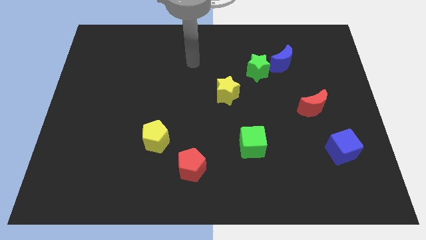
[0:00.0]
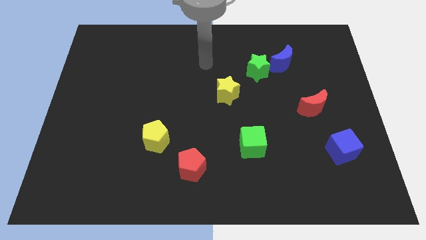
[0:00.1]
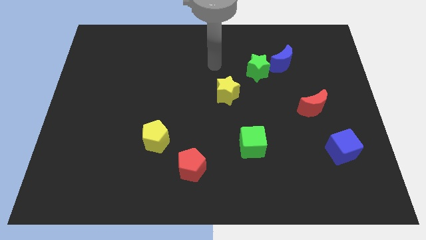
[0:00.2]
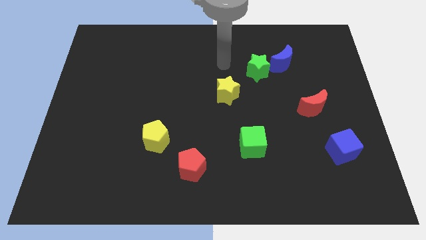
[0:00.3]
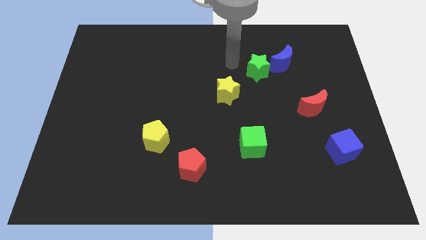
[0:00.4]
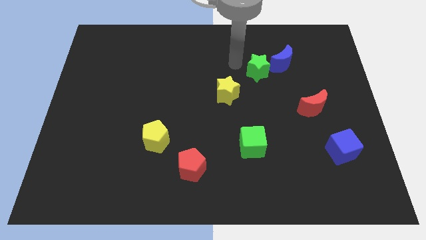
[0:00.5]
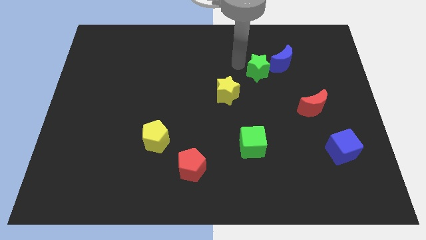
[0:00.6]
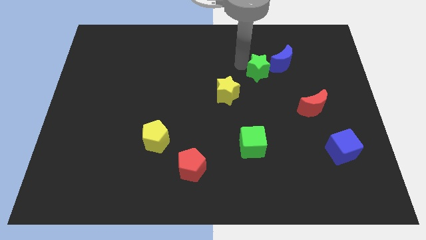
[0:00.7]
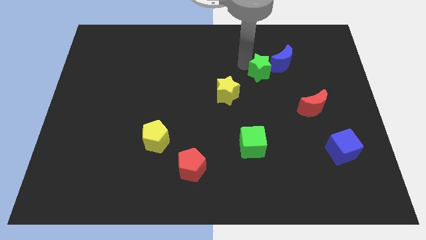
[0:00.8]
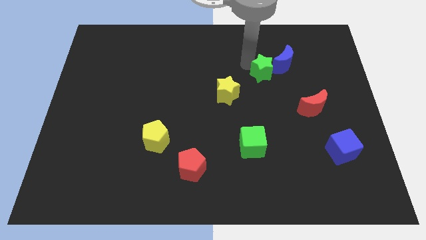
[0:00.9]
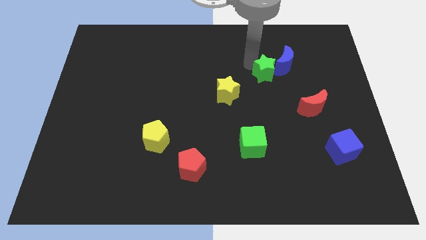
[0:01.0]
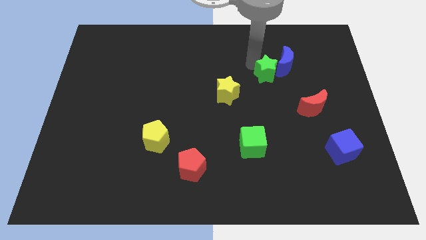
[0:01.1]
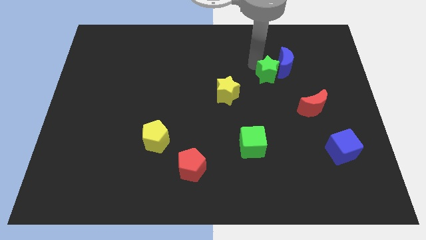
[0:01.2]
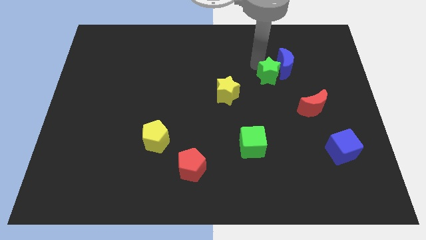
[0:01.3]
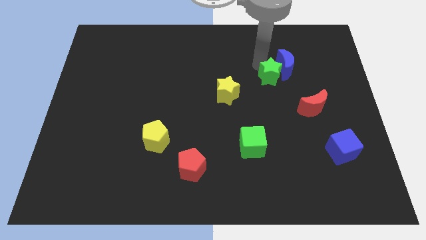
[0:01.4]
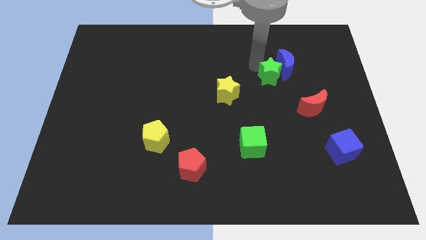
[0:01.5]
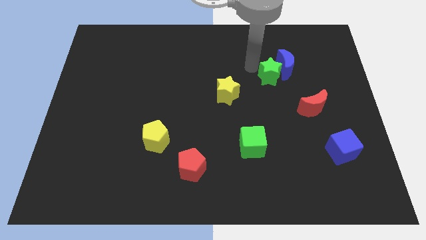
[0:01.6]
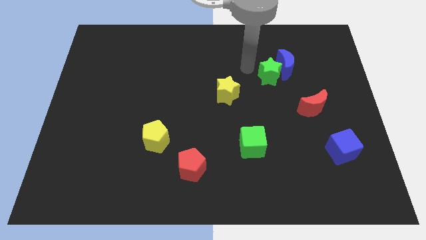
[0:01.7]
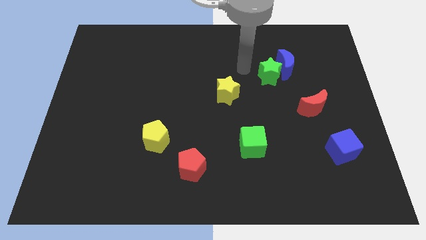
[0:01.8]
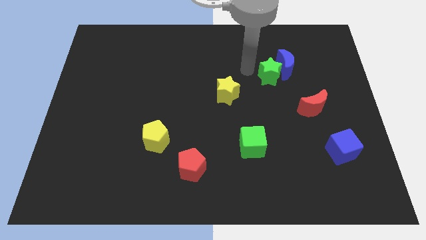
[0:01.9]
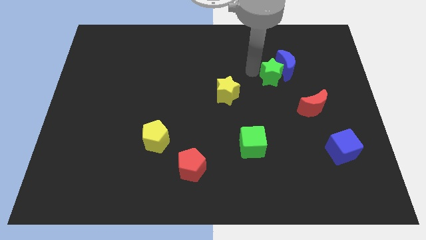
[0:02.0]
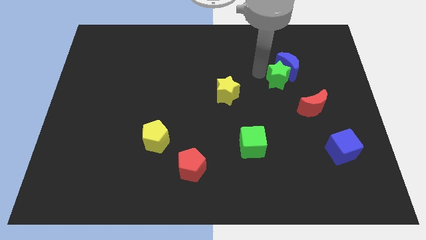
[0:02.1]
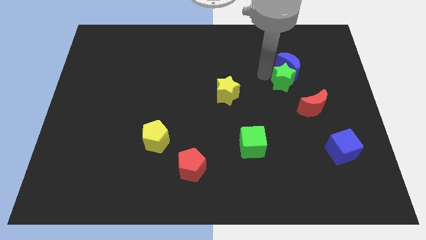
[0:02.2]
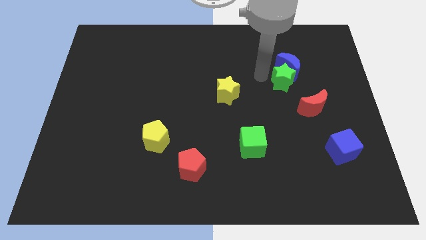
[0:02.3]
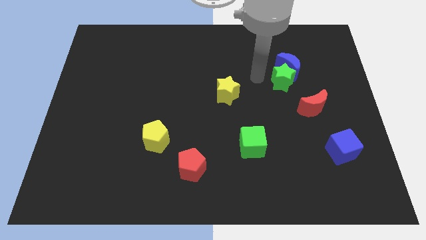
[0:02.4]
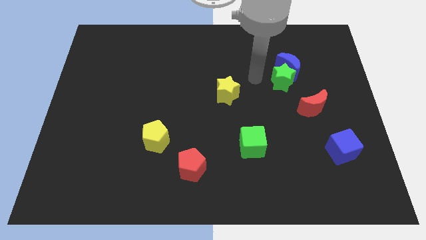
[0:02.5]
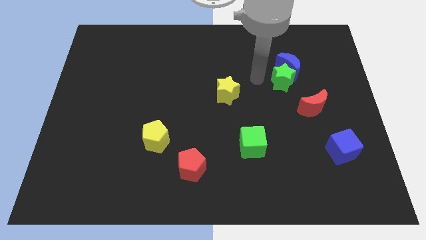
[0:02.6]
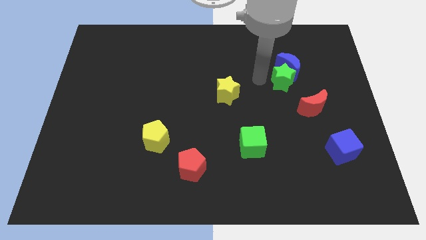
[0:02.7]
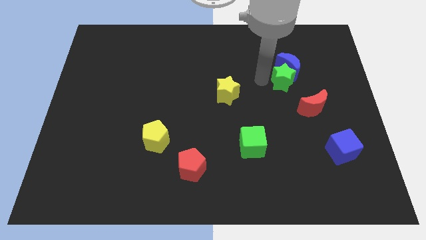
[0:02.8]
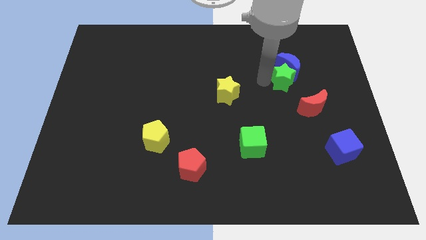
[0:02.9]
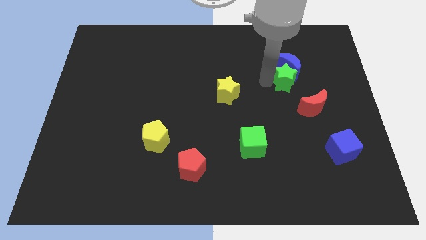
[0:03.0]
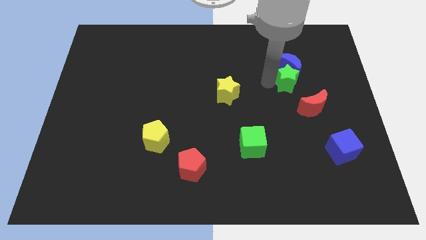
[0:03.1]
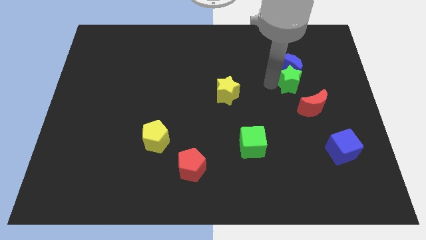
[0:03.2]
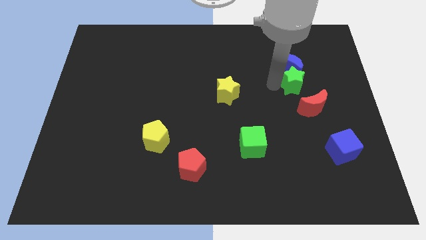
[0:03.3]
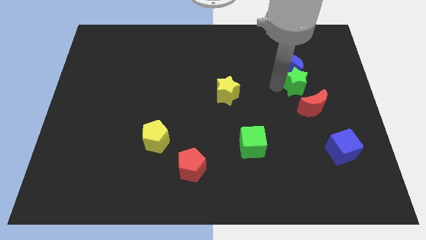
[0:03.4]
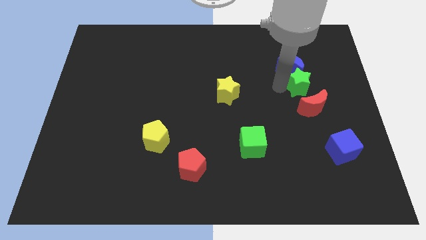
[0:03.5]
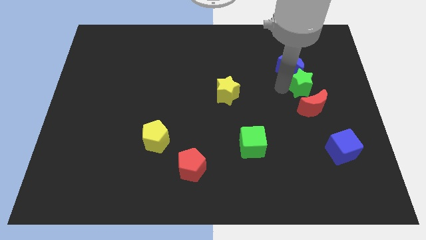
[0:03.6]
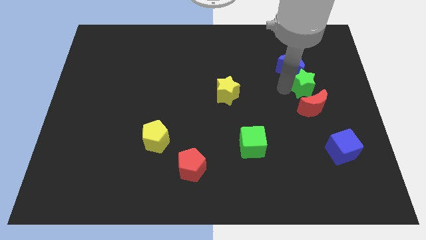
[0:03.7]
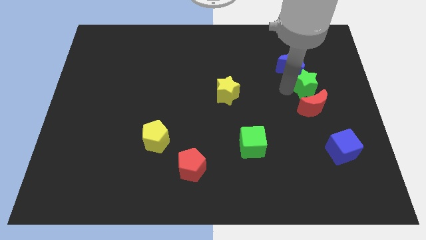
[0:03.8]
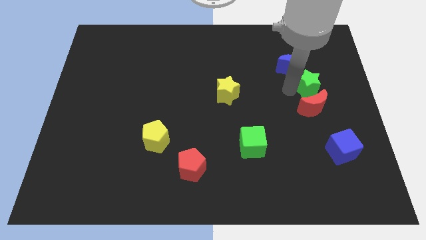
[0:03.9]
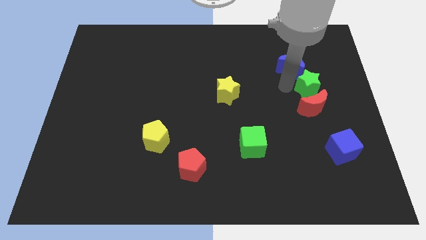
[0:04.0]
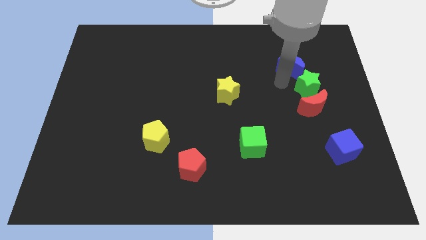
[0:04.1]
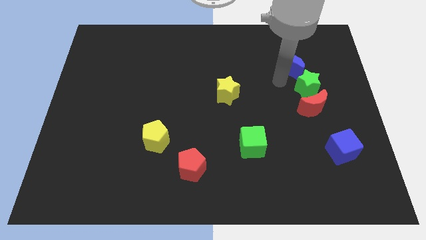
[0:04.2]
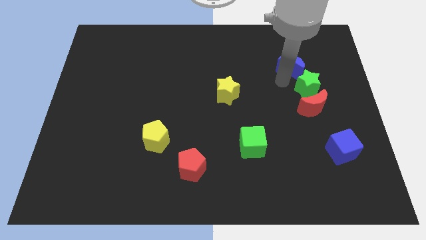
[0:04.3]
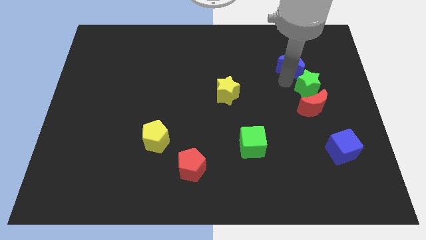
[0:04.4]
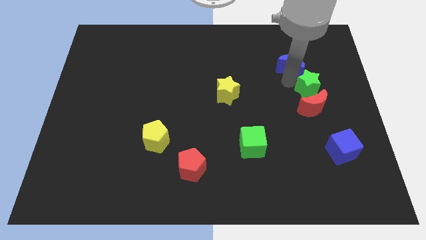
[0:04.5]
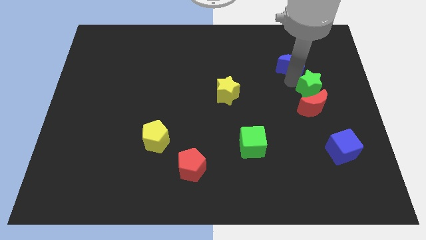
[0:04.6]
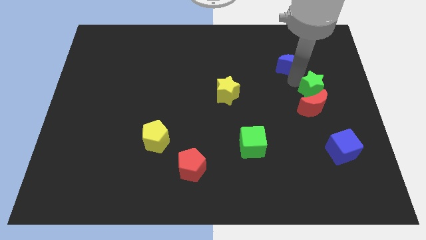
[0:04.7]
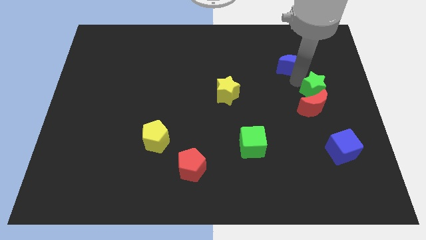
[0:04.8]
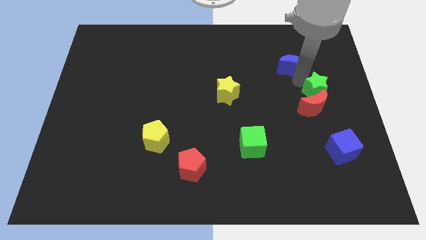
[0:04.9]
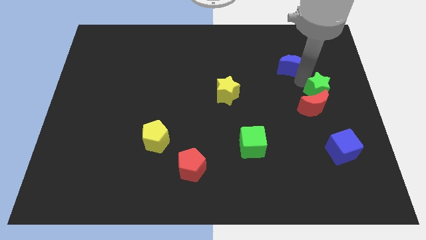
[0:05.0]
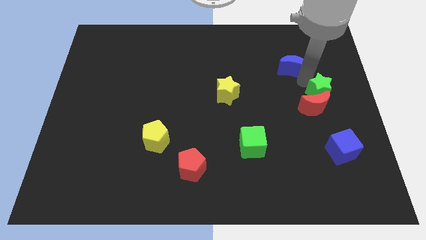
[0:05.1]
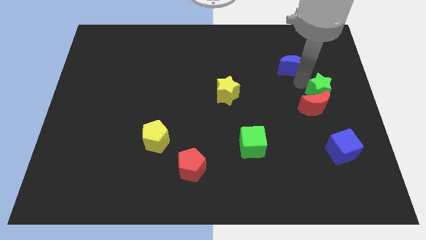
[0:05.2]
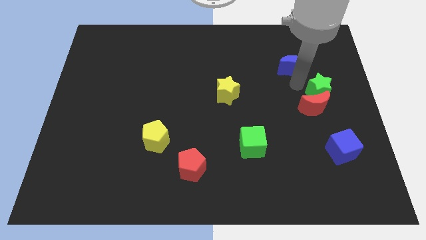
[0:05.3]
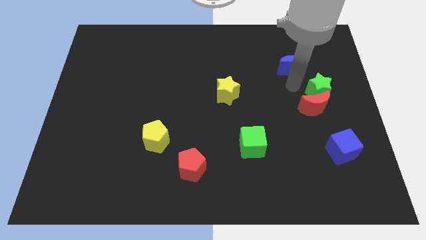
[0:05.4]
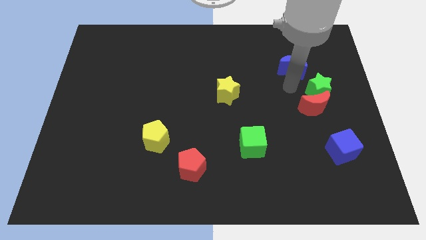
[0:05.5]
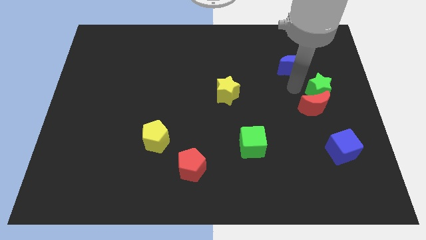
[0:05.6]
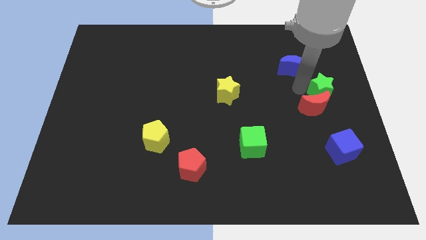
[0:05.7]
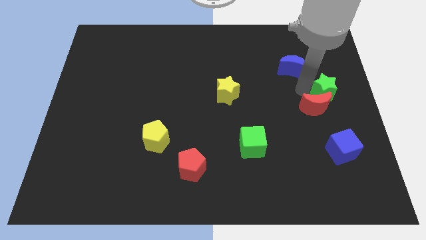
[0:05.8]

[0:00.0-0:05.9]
put the green star above the blue cube

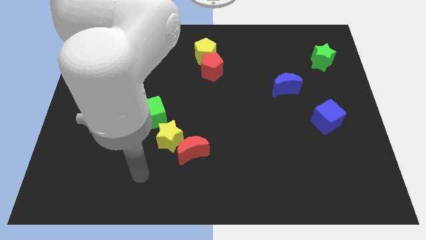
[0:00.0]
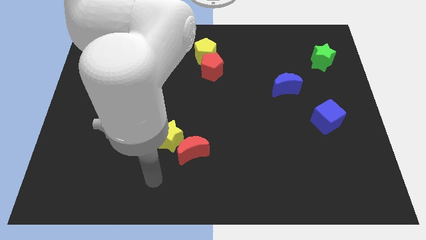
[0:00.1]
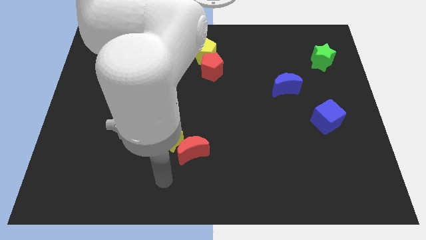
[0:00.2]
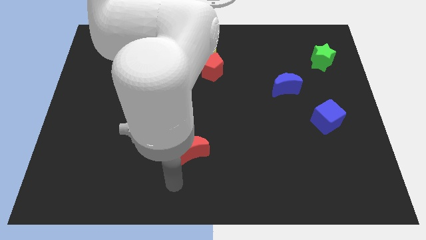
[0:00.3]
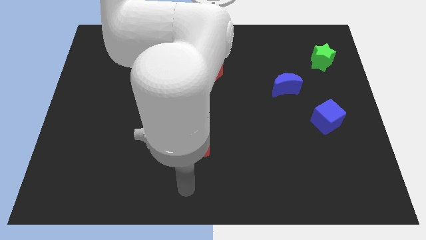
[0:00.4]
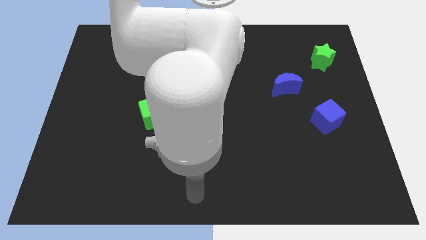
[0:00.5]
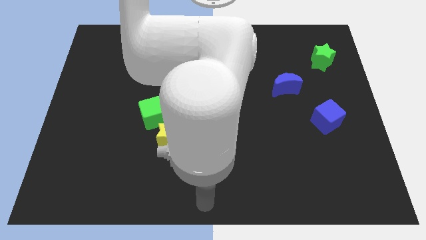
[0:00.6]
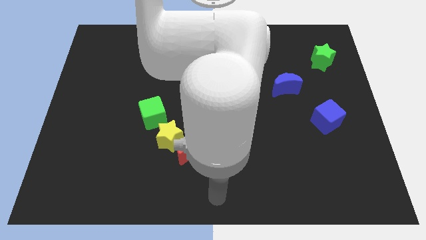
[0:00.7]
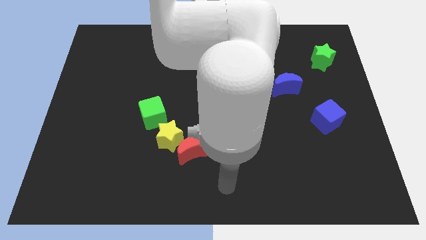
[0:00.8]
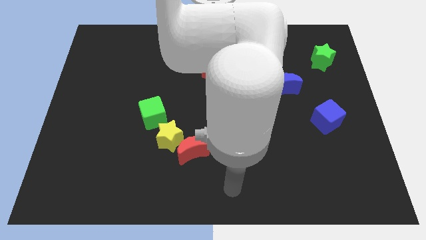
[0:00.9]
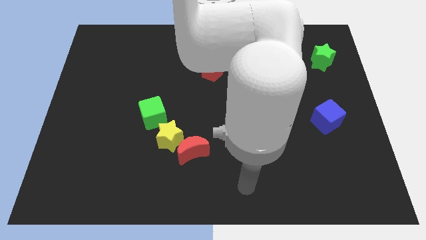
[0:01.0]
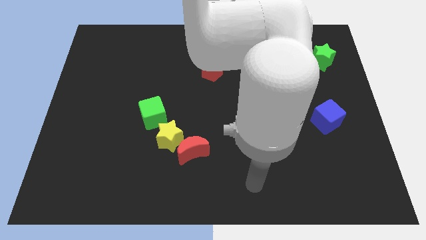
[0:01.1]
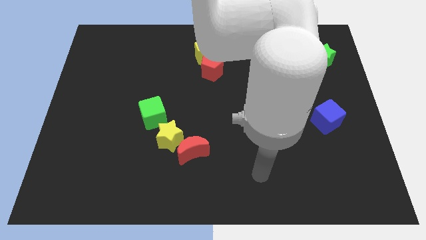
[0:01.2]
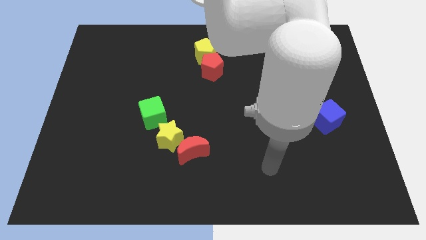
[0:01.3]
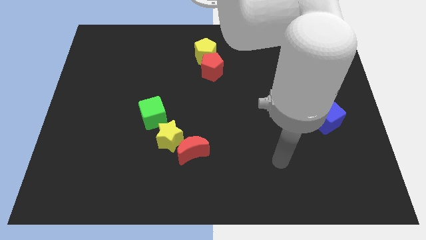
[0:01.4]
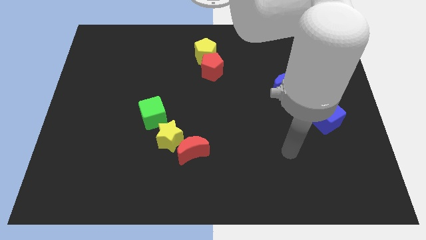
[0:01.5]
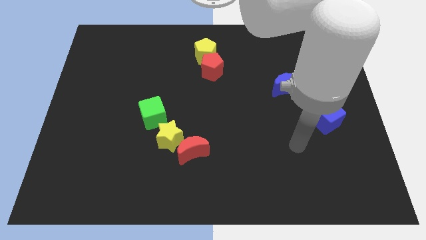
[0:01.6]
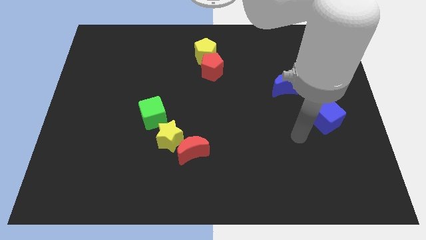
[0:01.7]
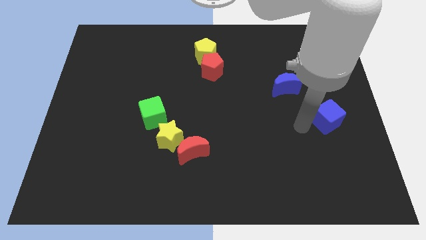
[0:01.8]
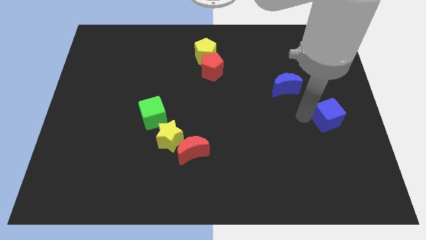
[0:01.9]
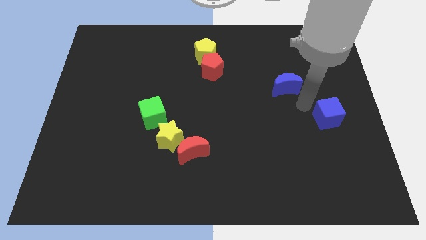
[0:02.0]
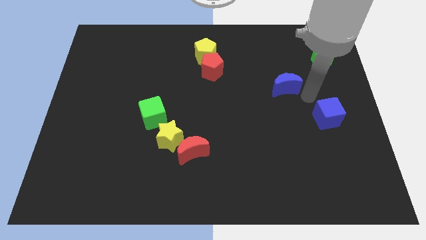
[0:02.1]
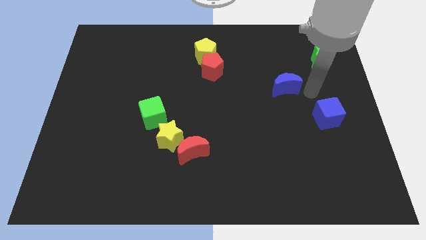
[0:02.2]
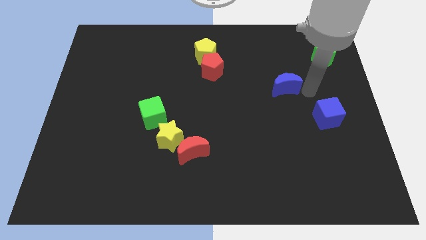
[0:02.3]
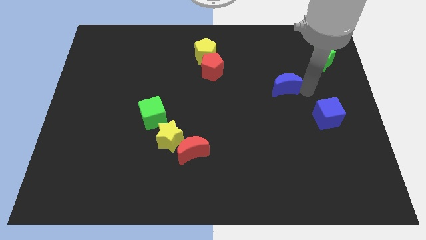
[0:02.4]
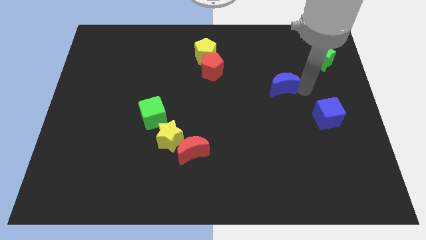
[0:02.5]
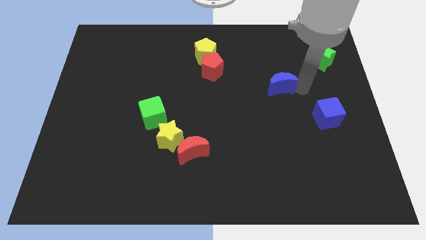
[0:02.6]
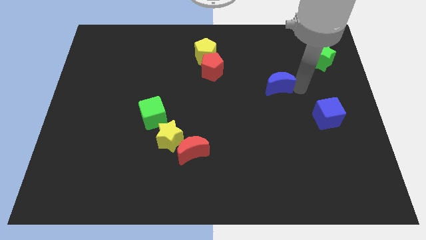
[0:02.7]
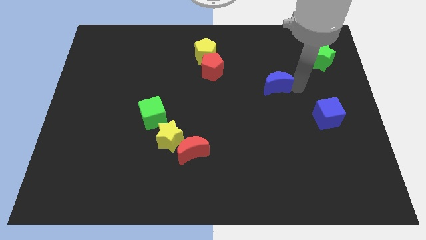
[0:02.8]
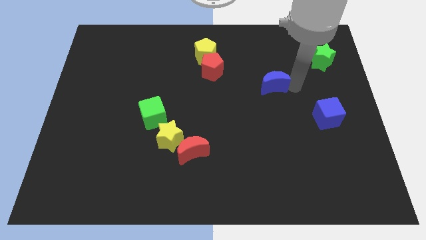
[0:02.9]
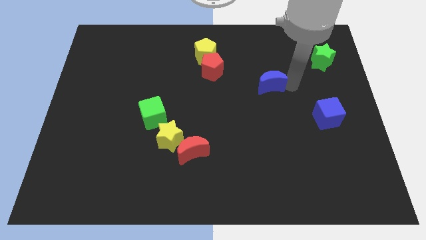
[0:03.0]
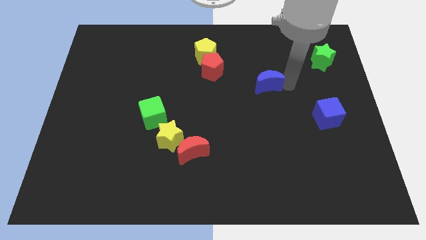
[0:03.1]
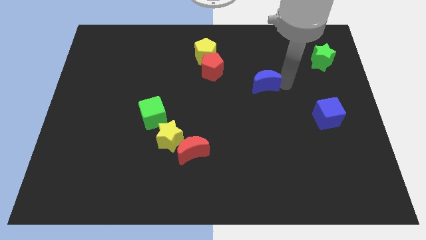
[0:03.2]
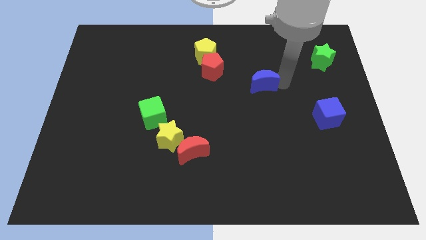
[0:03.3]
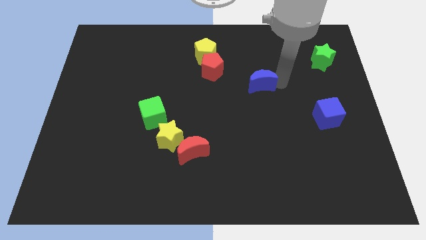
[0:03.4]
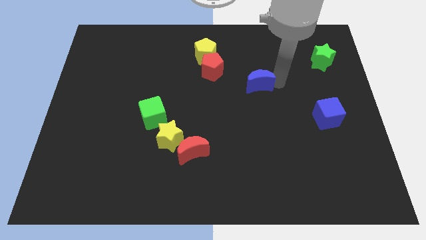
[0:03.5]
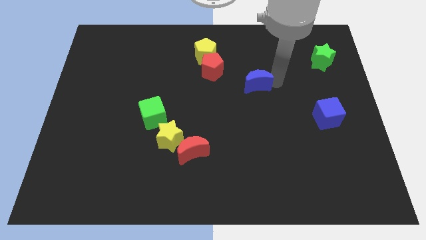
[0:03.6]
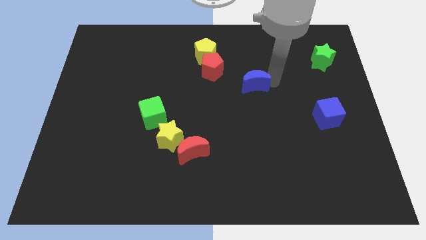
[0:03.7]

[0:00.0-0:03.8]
slide the blue moon to the bottom right side of the red pentagon
